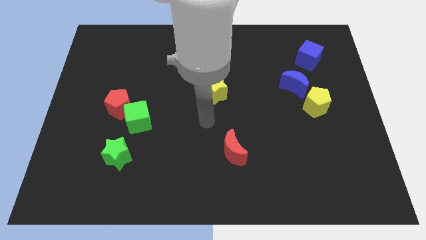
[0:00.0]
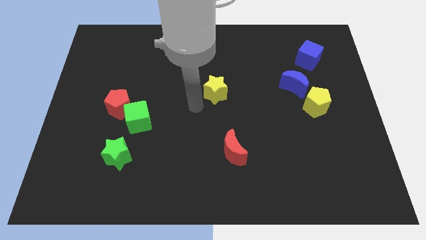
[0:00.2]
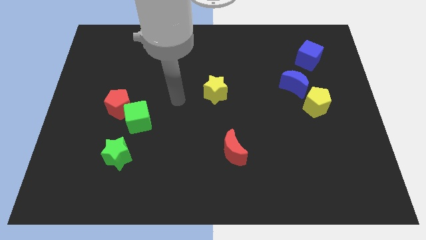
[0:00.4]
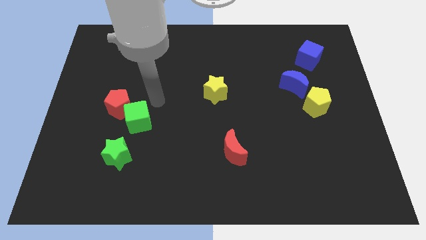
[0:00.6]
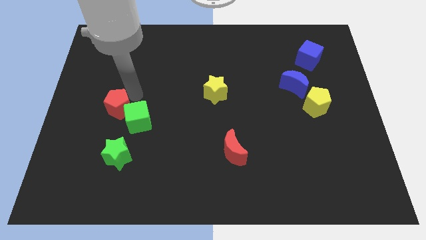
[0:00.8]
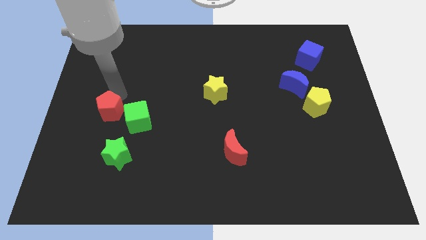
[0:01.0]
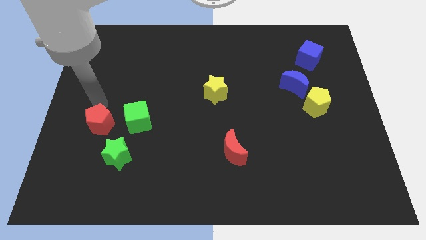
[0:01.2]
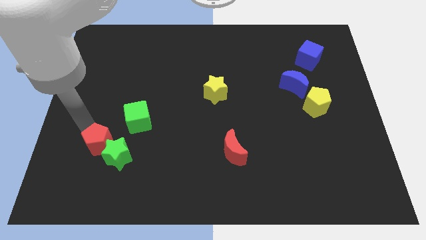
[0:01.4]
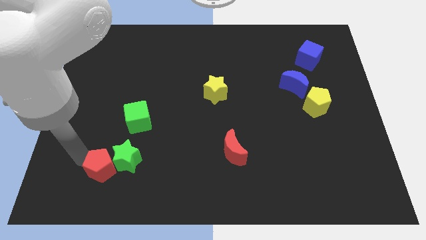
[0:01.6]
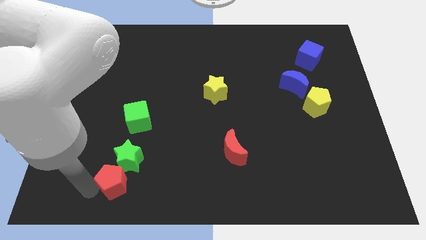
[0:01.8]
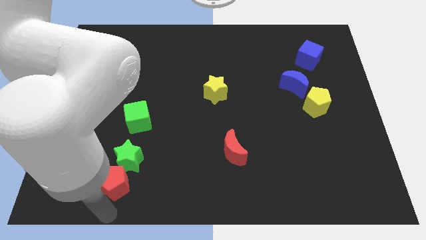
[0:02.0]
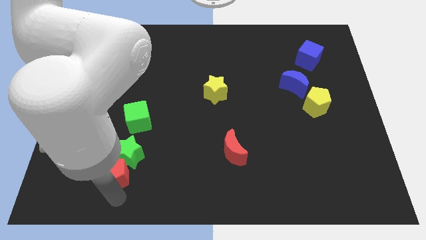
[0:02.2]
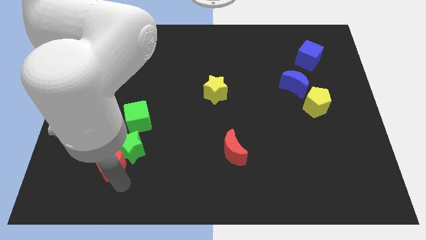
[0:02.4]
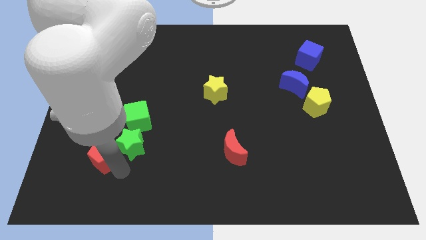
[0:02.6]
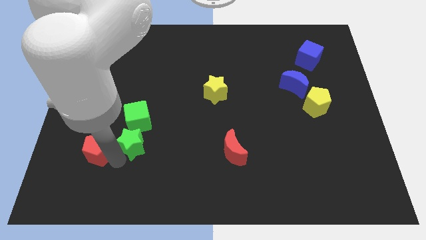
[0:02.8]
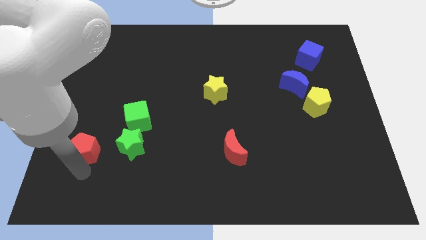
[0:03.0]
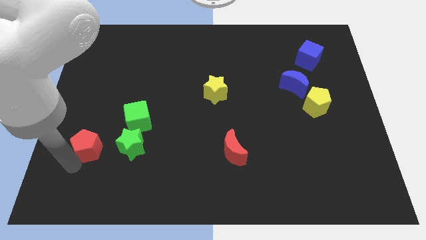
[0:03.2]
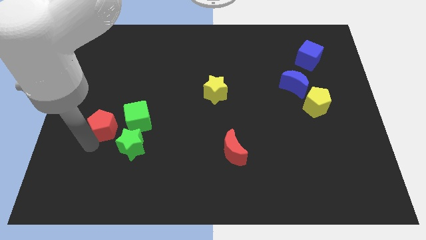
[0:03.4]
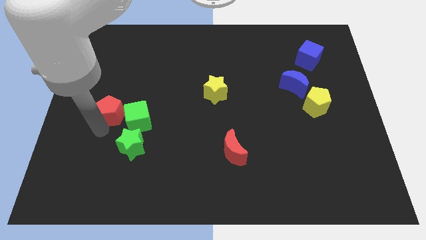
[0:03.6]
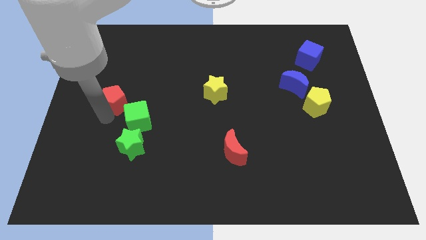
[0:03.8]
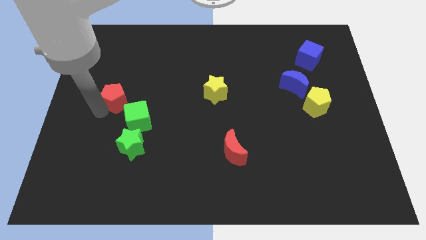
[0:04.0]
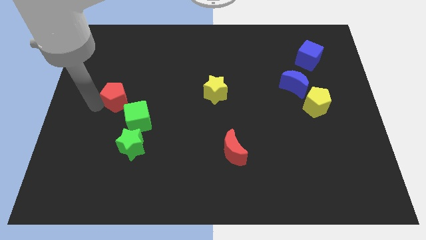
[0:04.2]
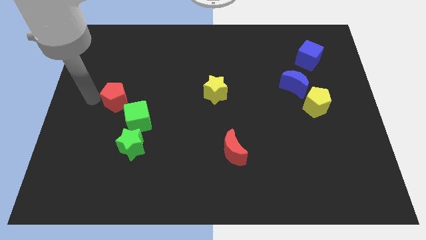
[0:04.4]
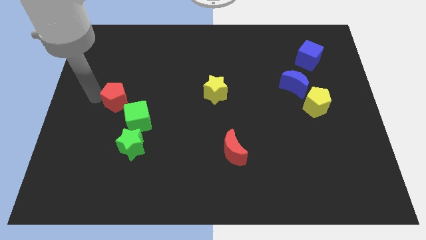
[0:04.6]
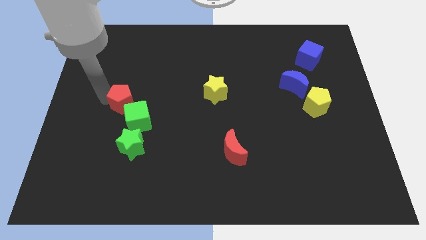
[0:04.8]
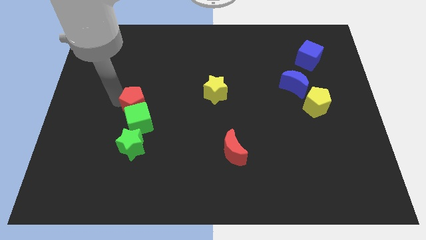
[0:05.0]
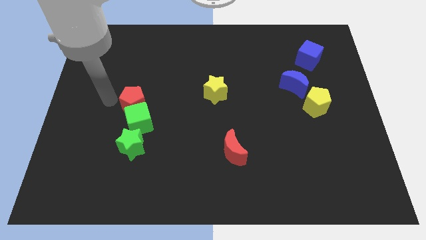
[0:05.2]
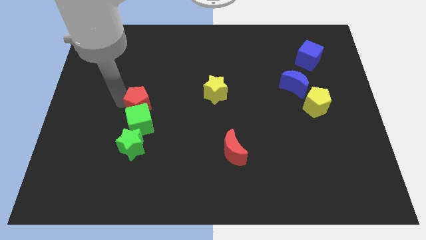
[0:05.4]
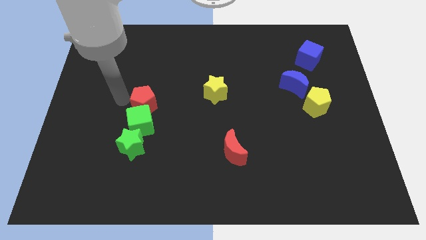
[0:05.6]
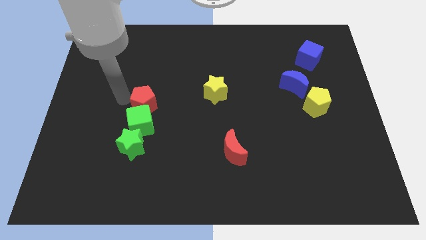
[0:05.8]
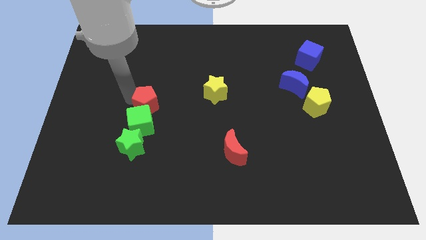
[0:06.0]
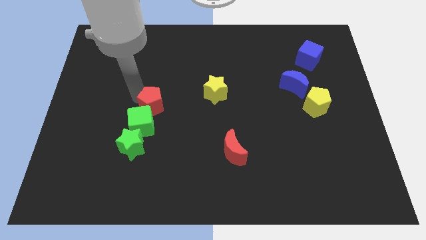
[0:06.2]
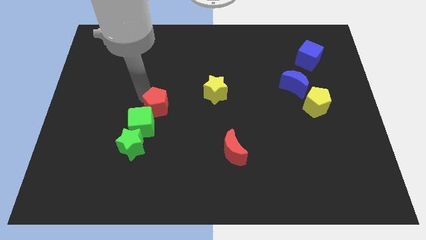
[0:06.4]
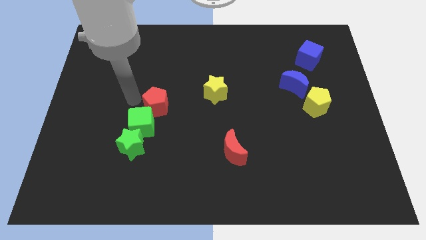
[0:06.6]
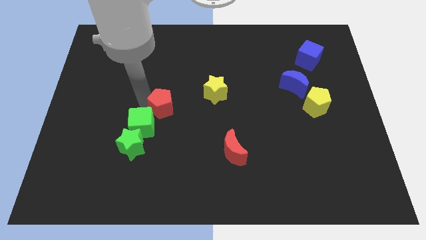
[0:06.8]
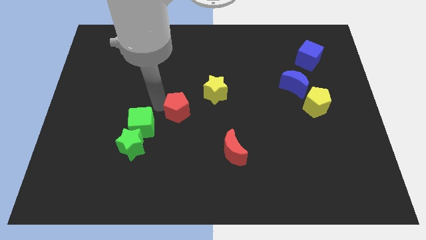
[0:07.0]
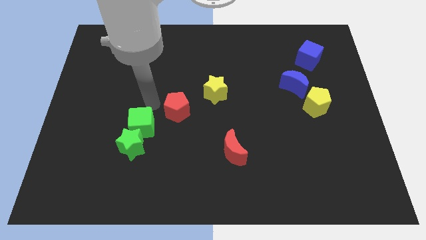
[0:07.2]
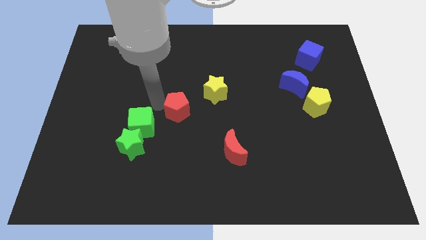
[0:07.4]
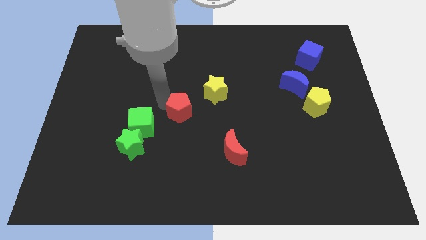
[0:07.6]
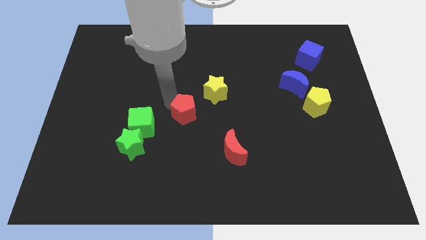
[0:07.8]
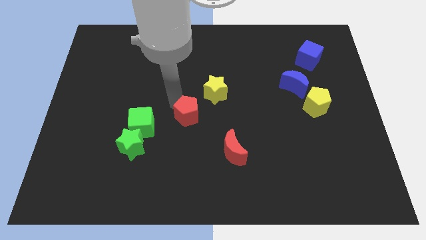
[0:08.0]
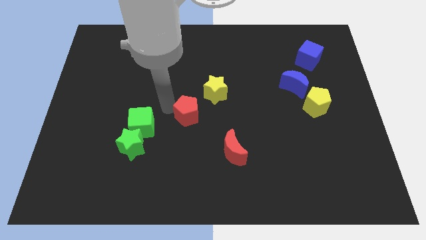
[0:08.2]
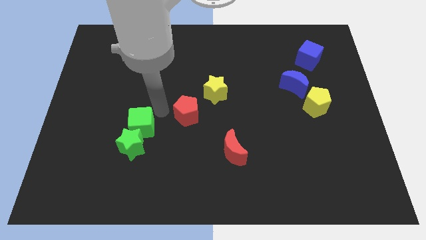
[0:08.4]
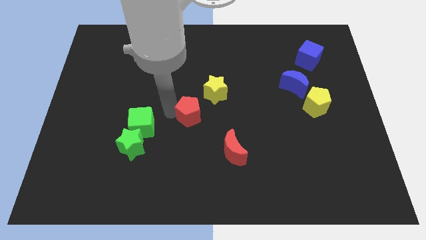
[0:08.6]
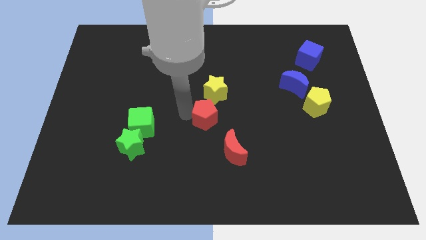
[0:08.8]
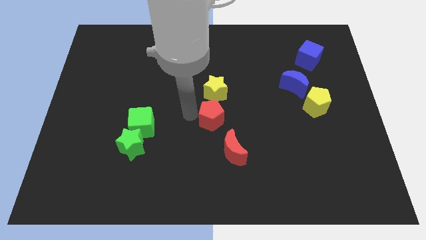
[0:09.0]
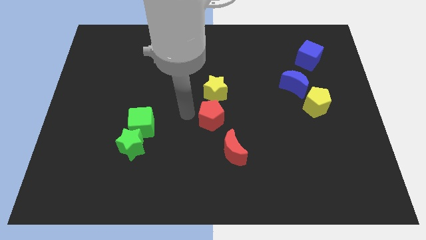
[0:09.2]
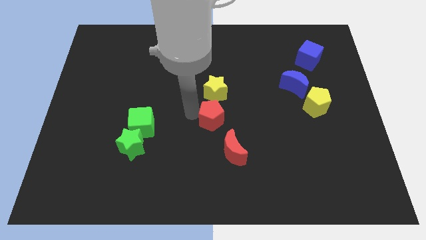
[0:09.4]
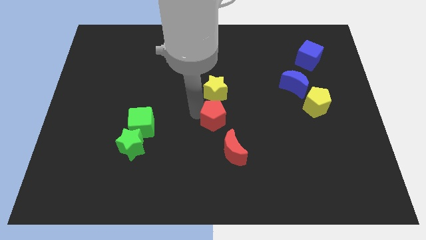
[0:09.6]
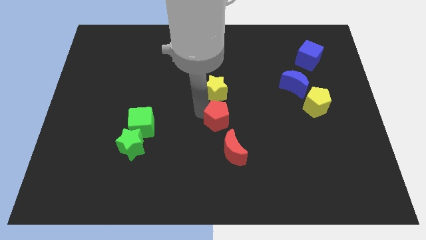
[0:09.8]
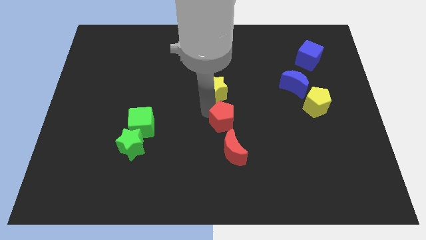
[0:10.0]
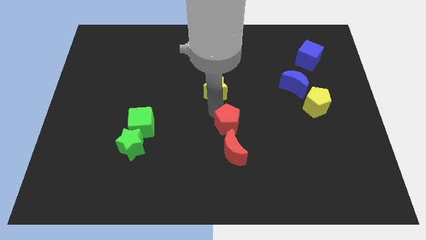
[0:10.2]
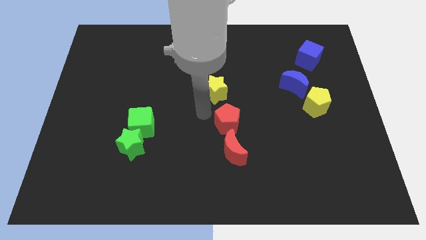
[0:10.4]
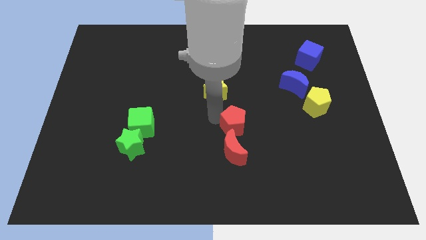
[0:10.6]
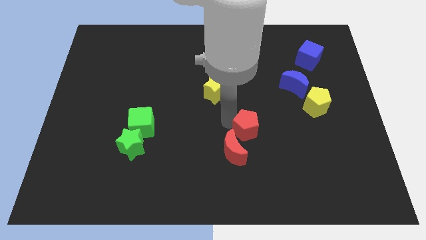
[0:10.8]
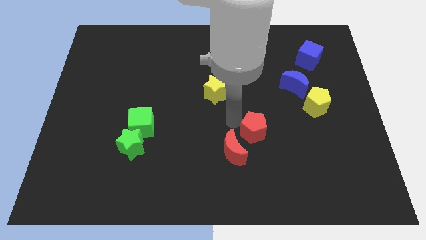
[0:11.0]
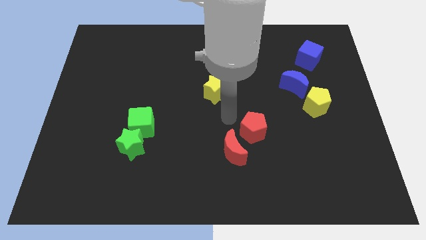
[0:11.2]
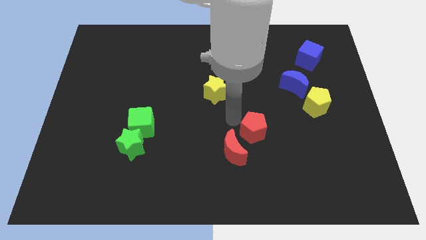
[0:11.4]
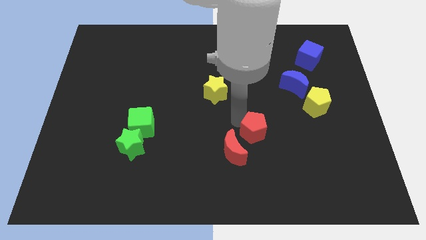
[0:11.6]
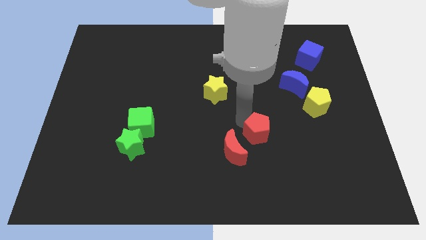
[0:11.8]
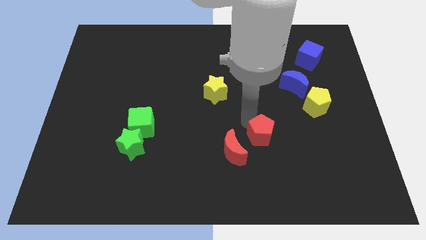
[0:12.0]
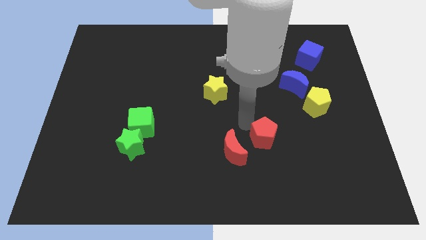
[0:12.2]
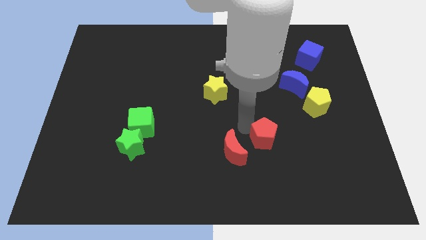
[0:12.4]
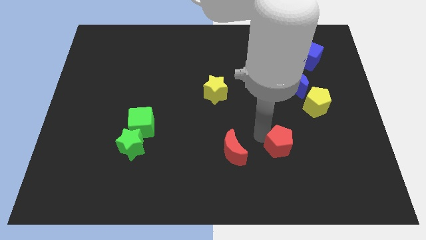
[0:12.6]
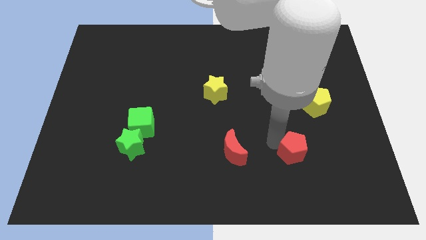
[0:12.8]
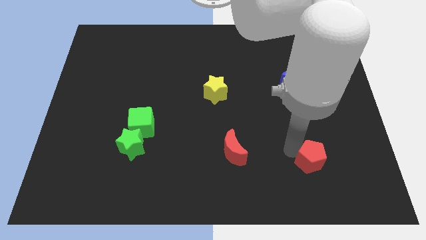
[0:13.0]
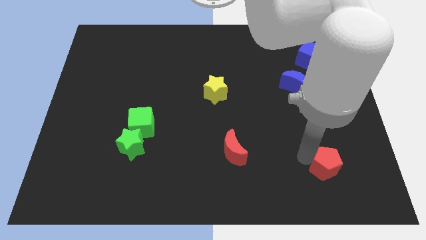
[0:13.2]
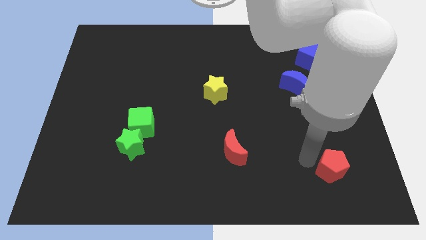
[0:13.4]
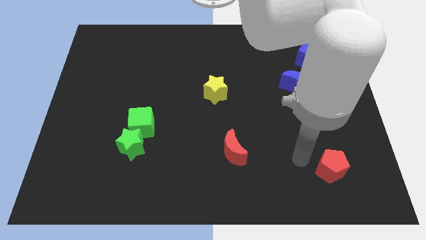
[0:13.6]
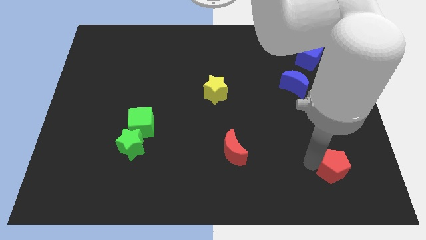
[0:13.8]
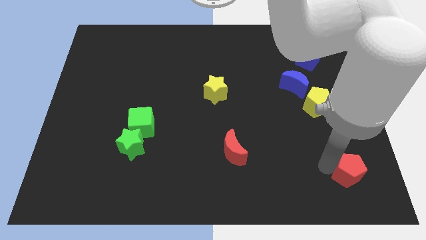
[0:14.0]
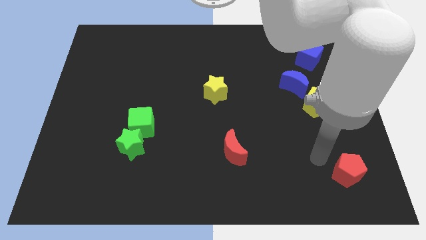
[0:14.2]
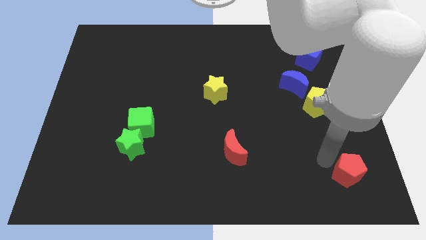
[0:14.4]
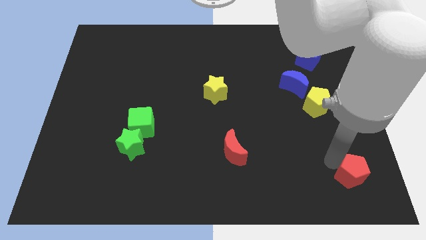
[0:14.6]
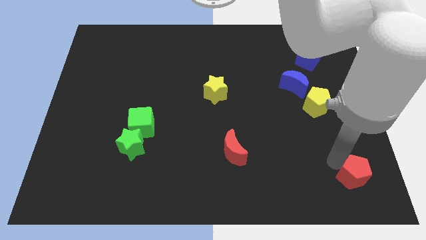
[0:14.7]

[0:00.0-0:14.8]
slide the red pentagon to the bottom right
